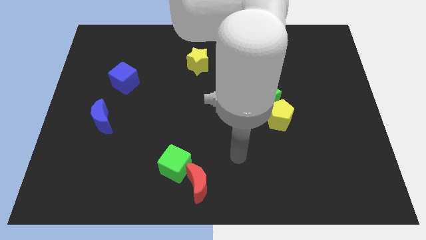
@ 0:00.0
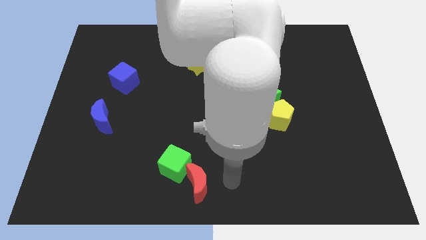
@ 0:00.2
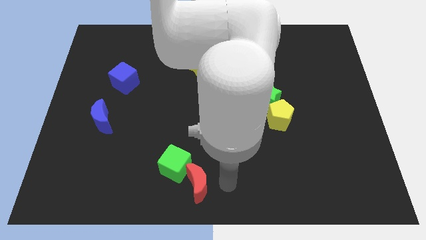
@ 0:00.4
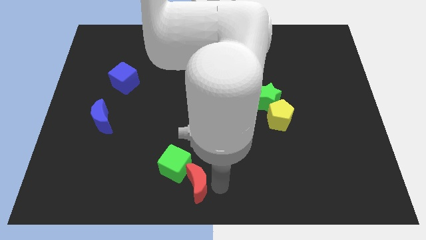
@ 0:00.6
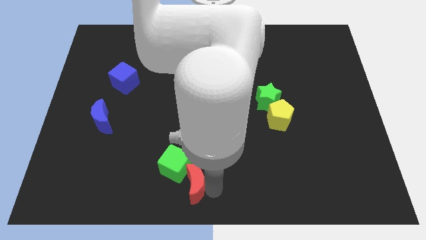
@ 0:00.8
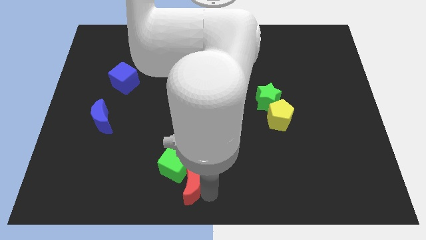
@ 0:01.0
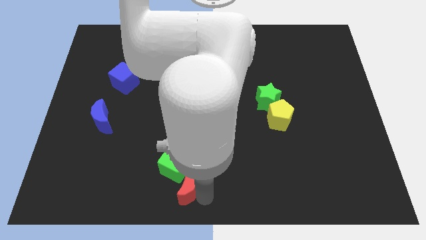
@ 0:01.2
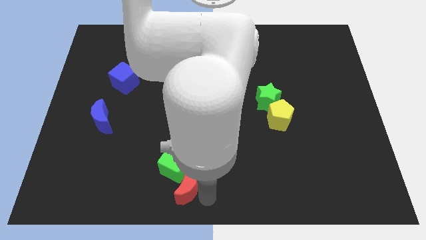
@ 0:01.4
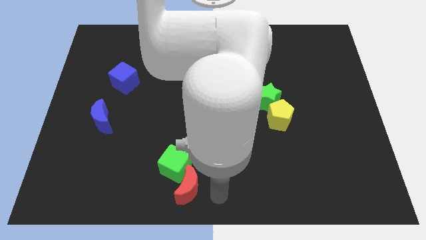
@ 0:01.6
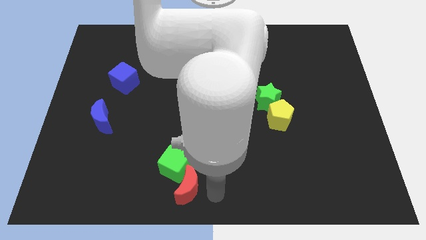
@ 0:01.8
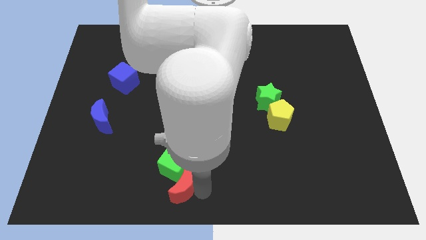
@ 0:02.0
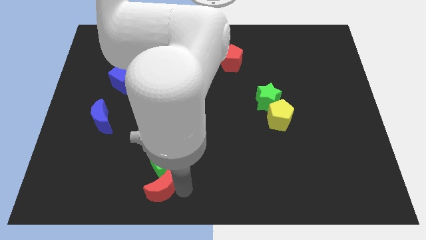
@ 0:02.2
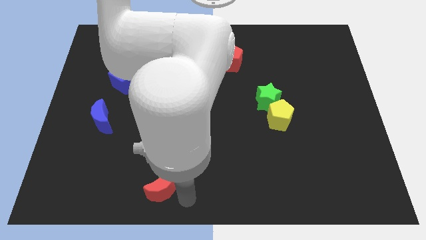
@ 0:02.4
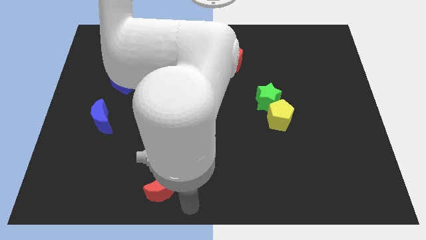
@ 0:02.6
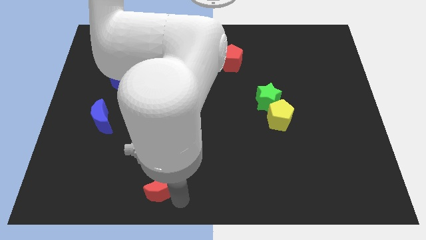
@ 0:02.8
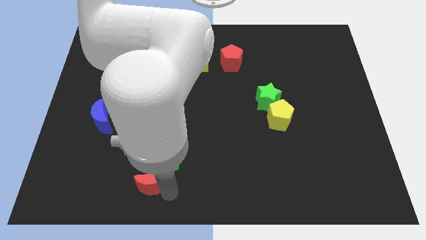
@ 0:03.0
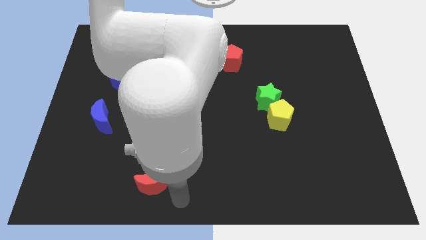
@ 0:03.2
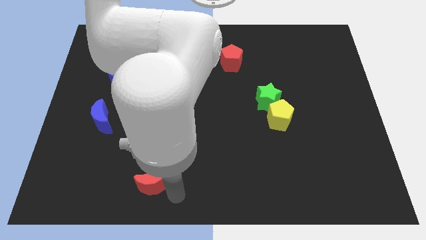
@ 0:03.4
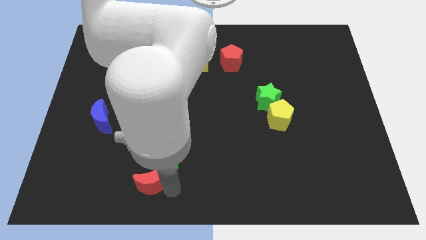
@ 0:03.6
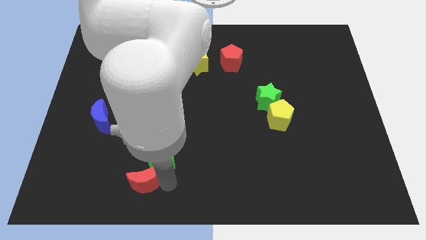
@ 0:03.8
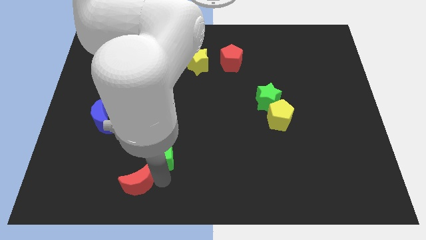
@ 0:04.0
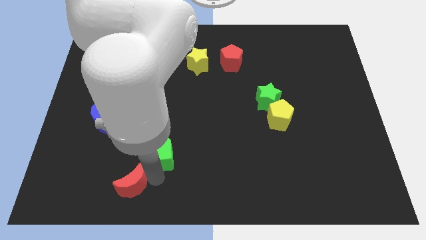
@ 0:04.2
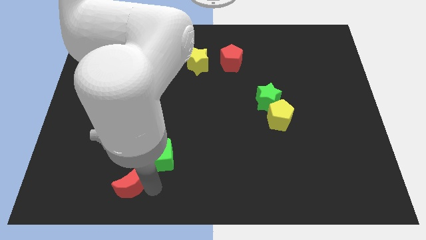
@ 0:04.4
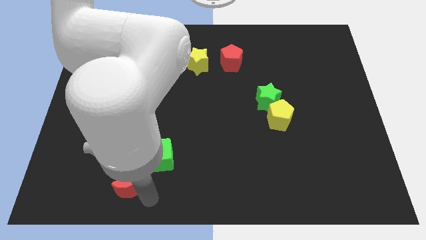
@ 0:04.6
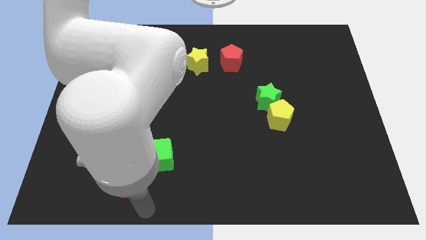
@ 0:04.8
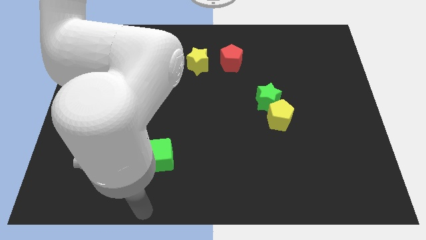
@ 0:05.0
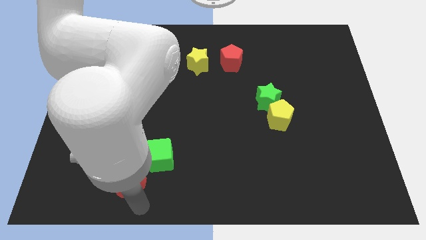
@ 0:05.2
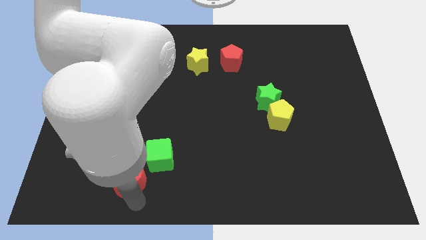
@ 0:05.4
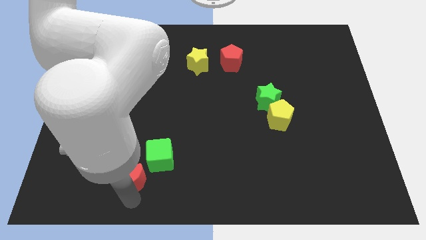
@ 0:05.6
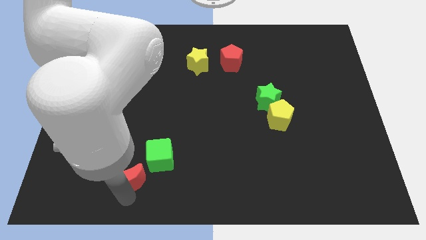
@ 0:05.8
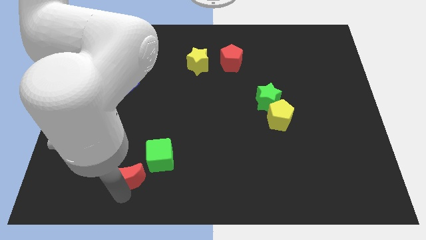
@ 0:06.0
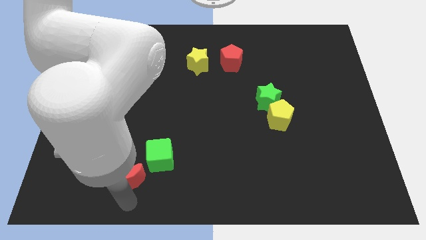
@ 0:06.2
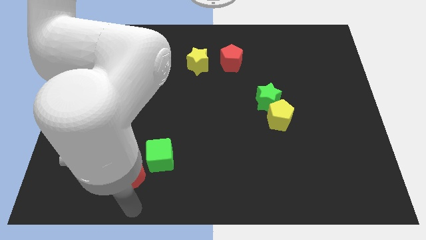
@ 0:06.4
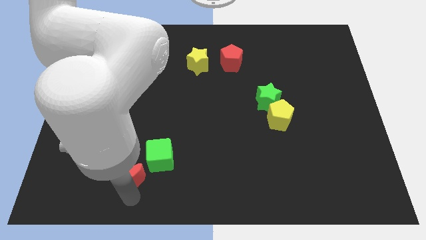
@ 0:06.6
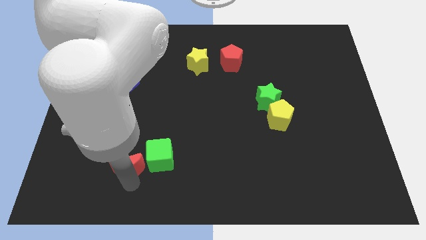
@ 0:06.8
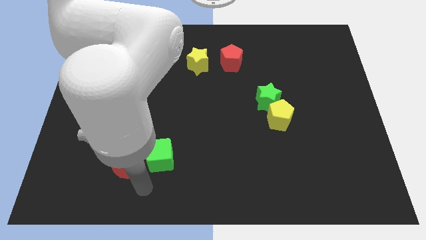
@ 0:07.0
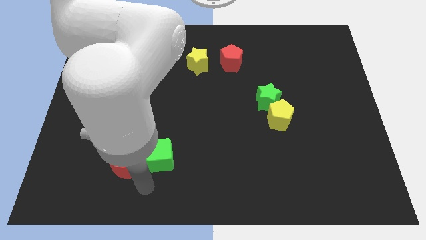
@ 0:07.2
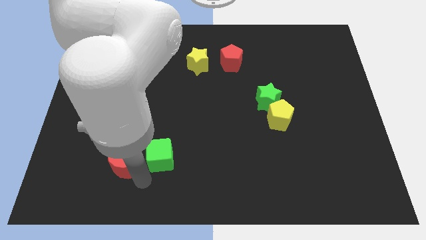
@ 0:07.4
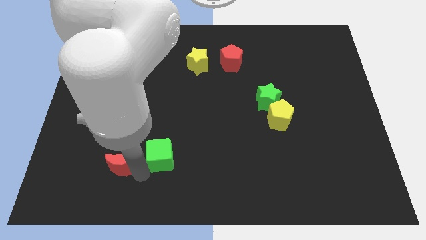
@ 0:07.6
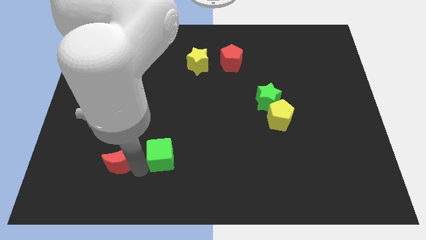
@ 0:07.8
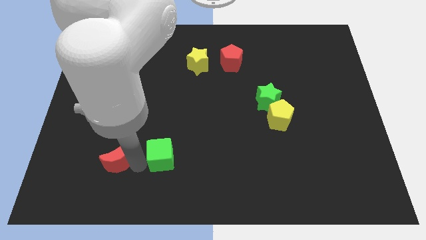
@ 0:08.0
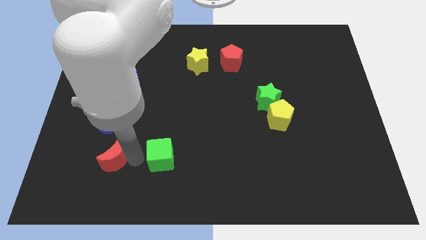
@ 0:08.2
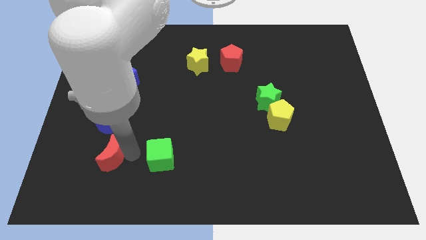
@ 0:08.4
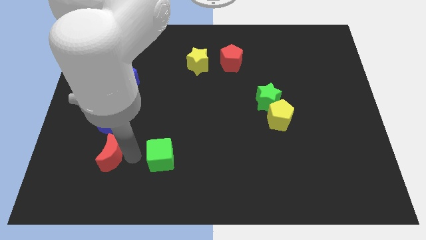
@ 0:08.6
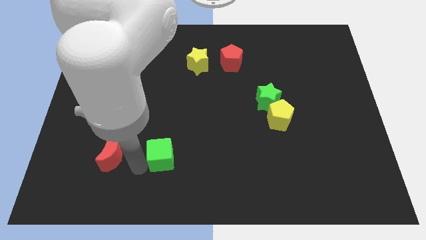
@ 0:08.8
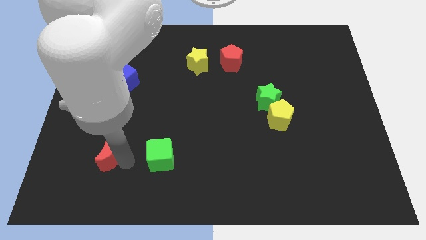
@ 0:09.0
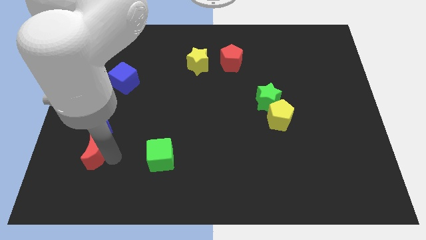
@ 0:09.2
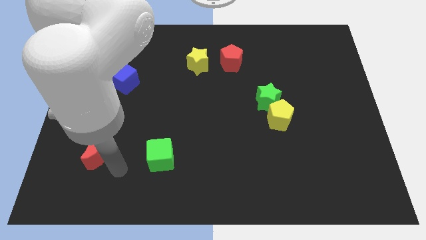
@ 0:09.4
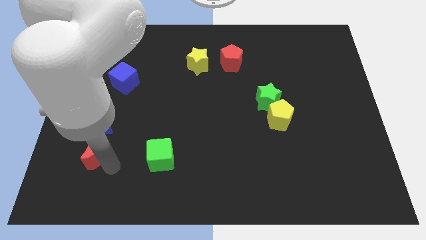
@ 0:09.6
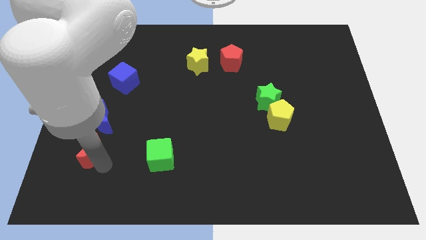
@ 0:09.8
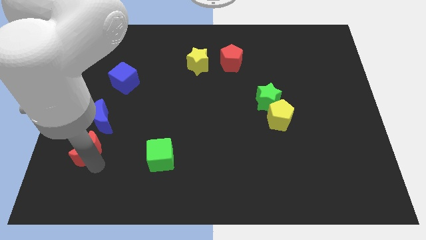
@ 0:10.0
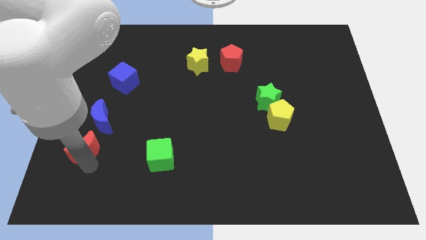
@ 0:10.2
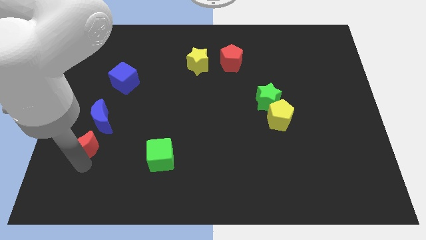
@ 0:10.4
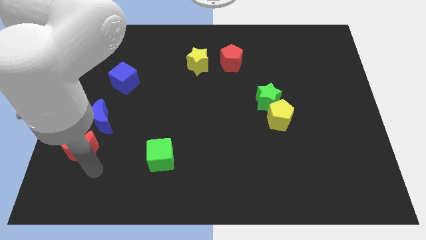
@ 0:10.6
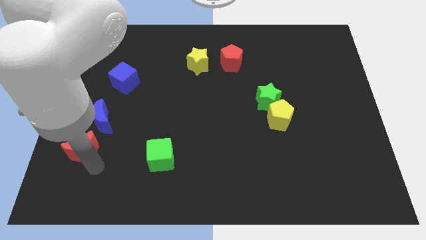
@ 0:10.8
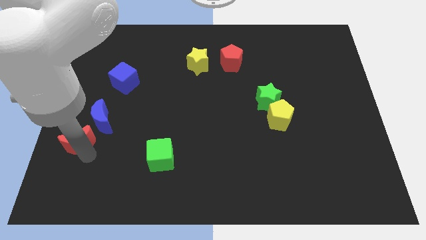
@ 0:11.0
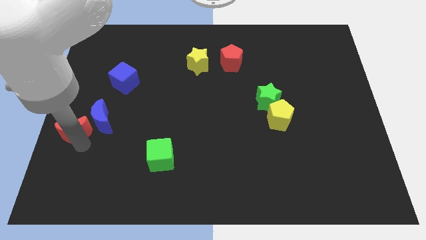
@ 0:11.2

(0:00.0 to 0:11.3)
push the red moon to the left side
